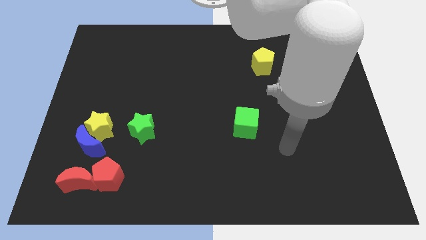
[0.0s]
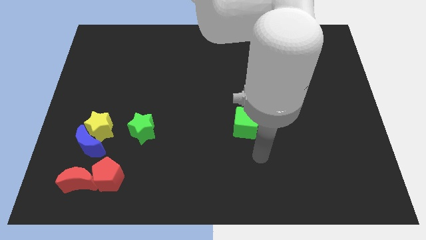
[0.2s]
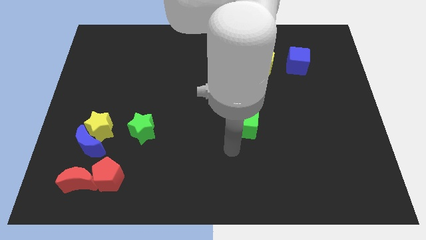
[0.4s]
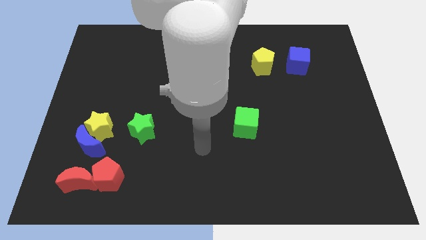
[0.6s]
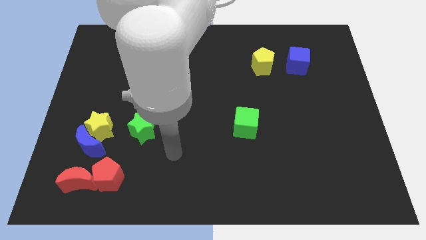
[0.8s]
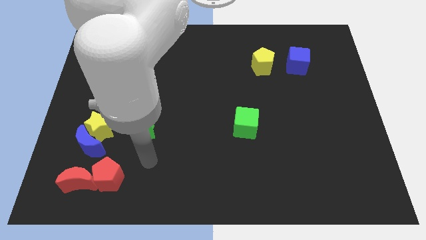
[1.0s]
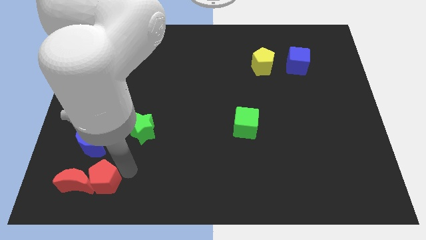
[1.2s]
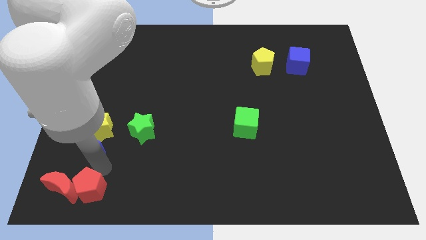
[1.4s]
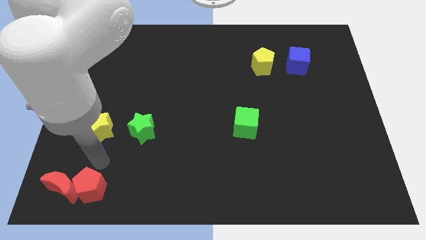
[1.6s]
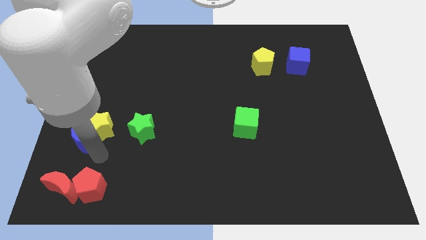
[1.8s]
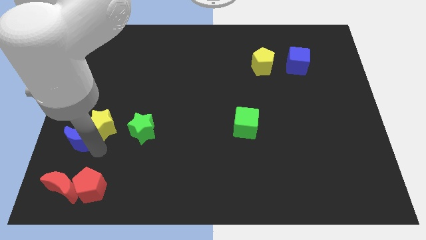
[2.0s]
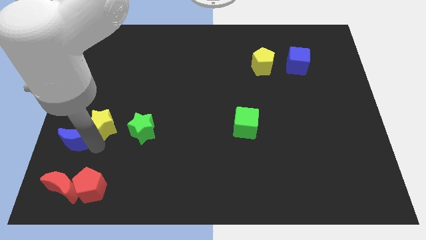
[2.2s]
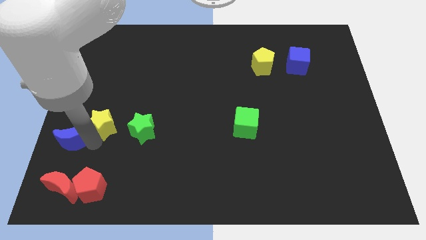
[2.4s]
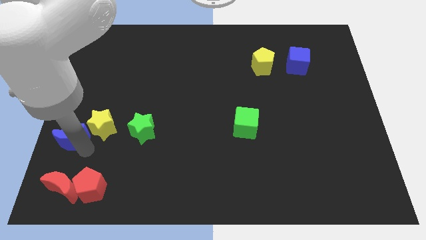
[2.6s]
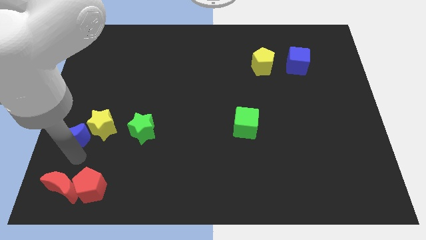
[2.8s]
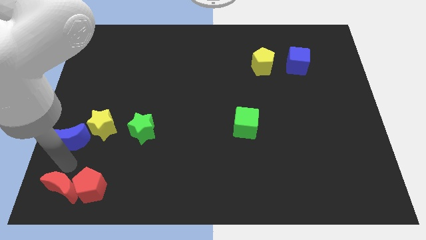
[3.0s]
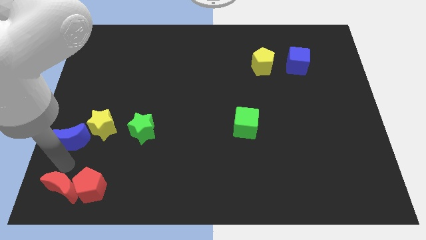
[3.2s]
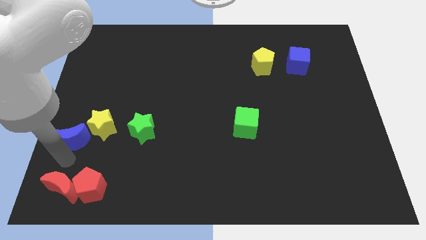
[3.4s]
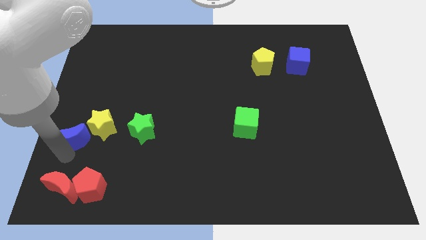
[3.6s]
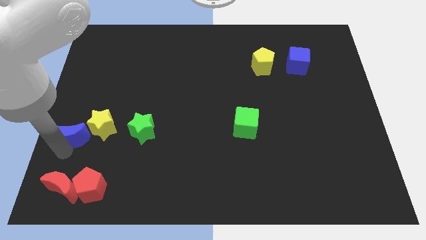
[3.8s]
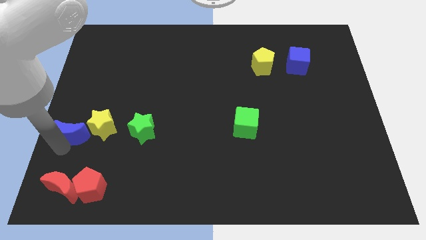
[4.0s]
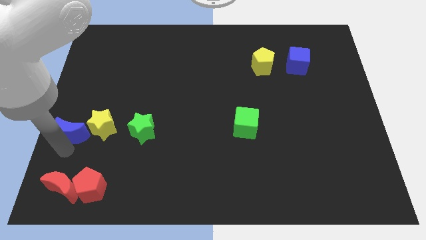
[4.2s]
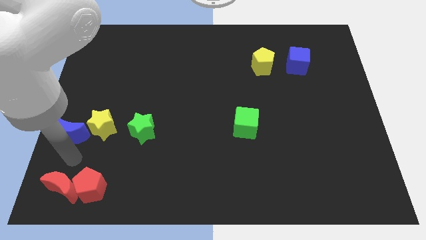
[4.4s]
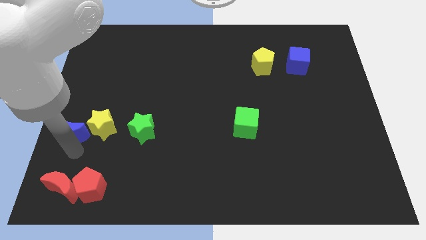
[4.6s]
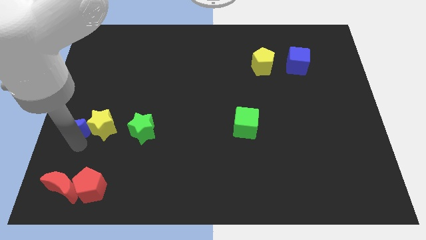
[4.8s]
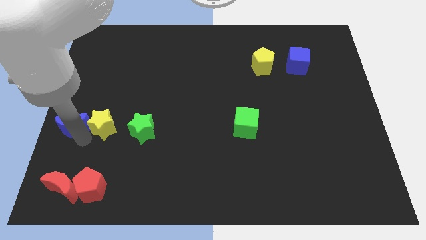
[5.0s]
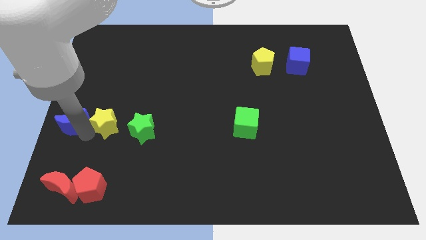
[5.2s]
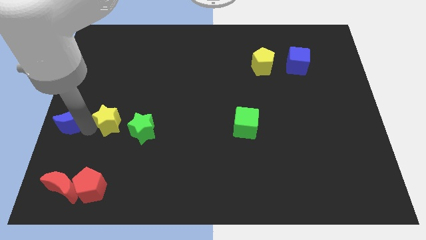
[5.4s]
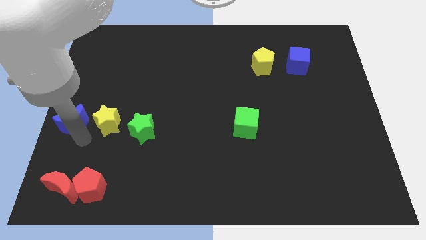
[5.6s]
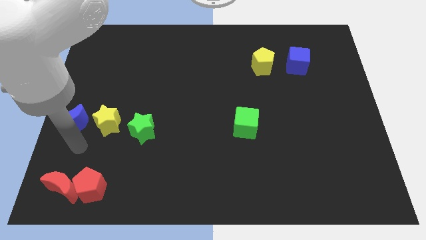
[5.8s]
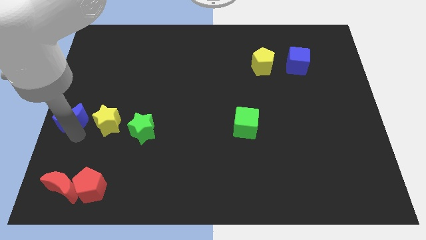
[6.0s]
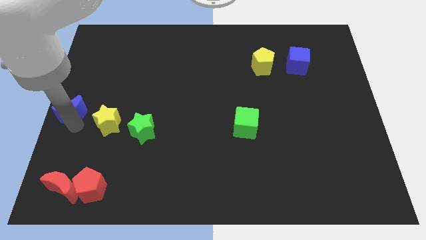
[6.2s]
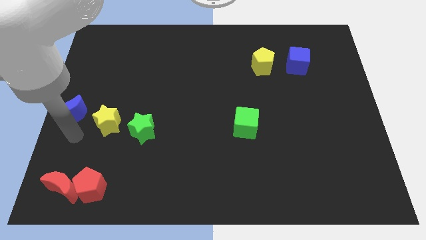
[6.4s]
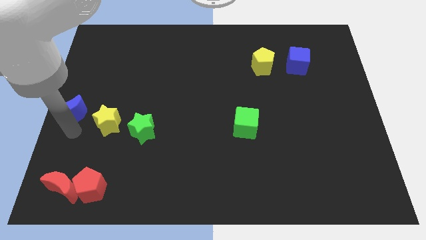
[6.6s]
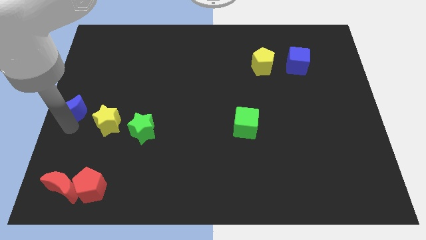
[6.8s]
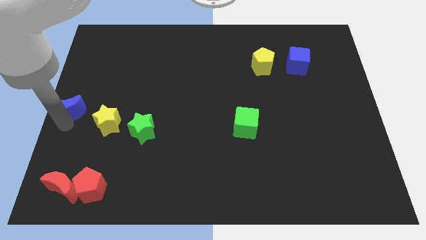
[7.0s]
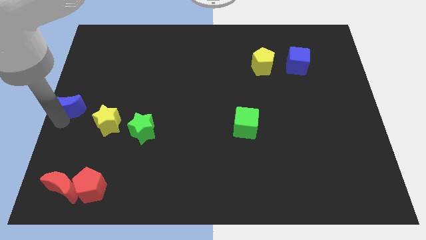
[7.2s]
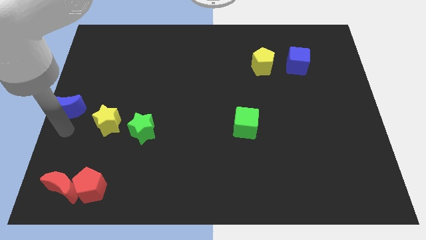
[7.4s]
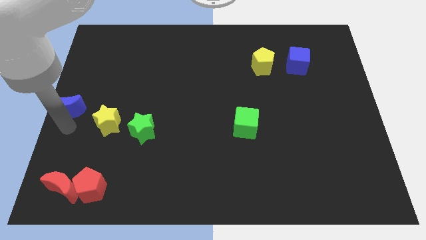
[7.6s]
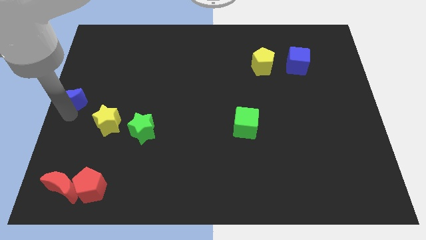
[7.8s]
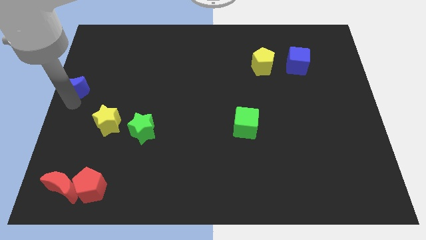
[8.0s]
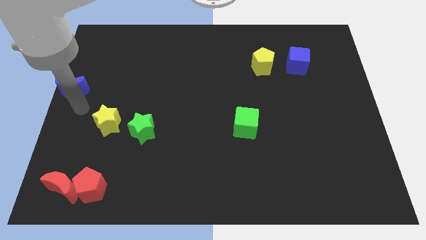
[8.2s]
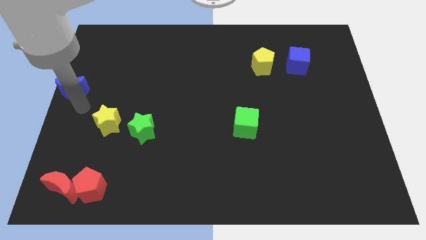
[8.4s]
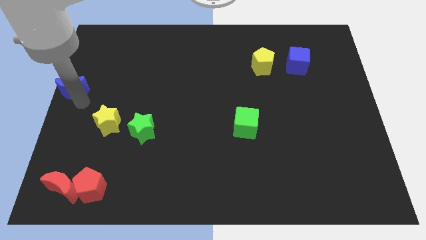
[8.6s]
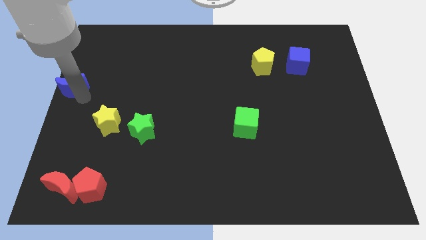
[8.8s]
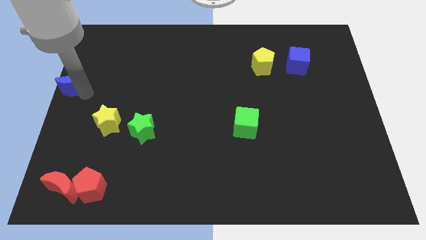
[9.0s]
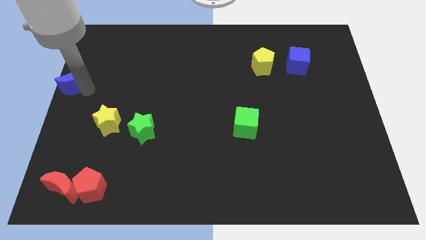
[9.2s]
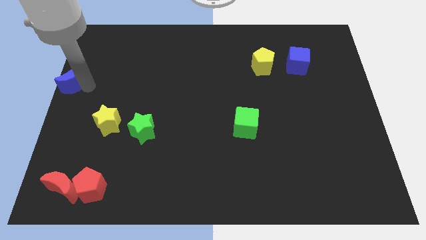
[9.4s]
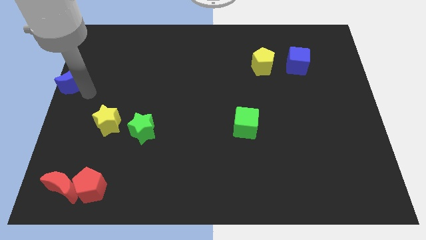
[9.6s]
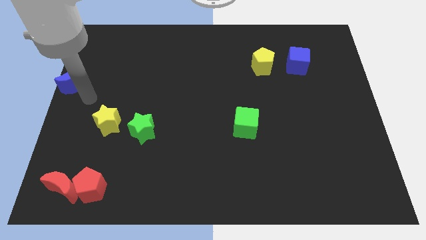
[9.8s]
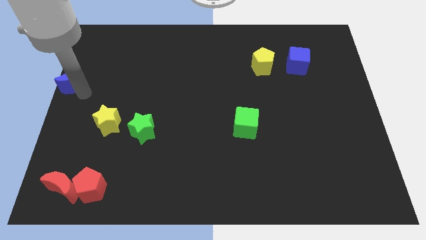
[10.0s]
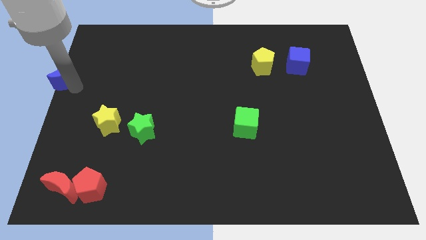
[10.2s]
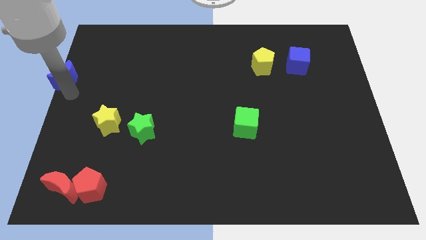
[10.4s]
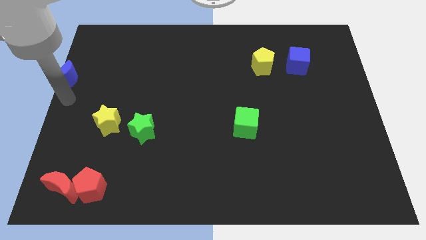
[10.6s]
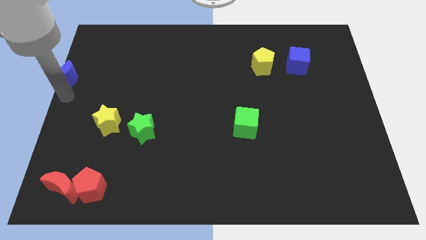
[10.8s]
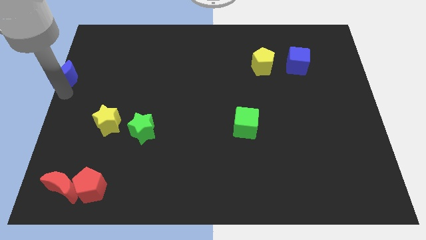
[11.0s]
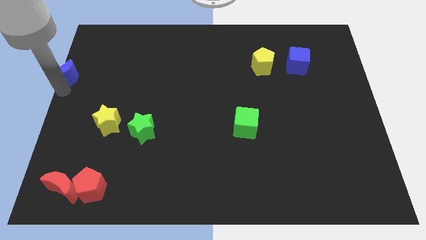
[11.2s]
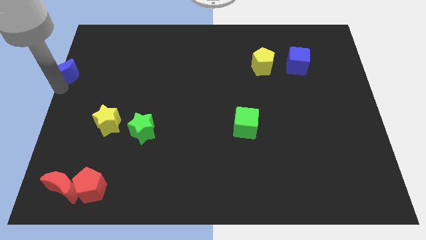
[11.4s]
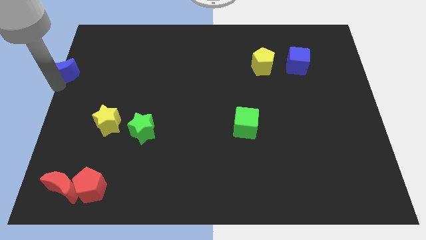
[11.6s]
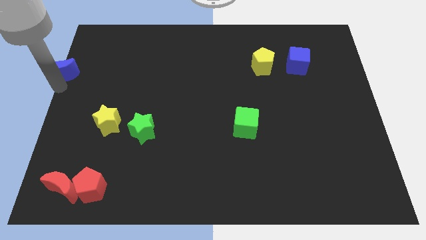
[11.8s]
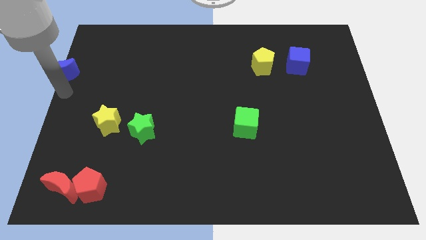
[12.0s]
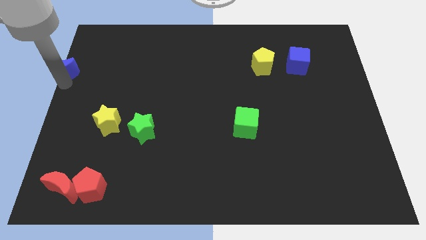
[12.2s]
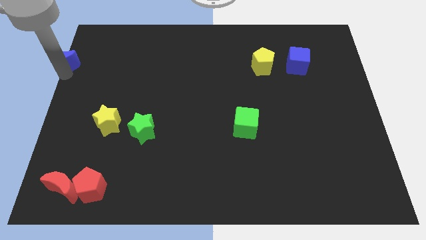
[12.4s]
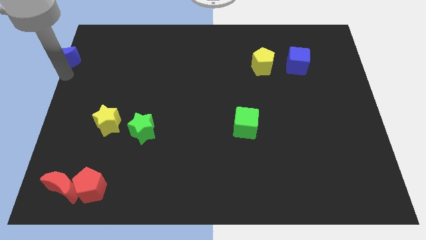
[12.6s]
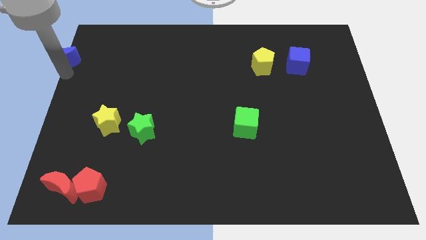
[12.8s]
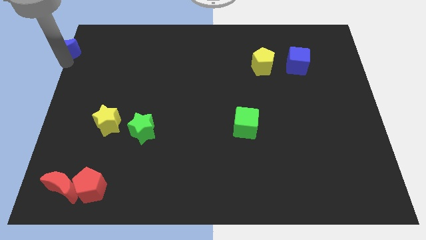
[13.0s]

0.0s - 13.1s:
move the blue moon to the upper left corner

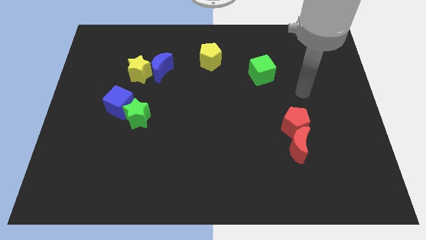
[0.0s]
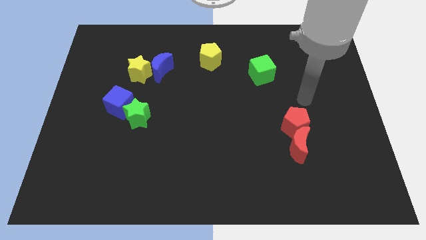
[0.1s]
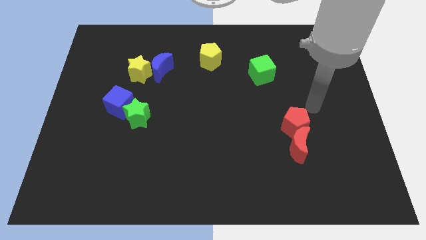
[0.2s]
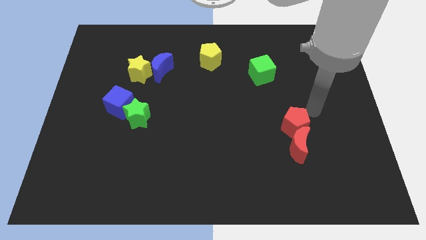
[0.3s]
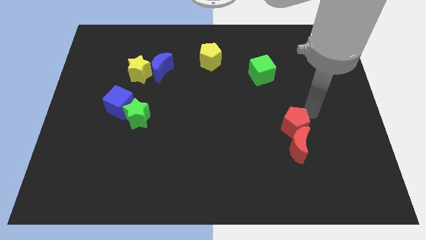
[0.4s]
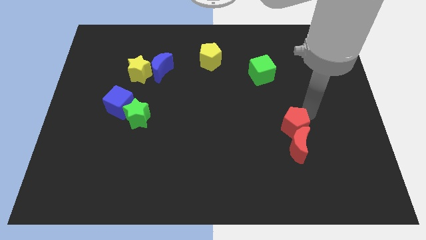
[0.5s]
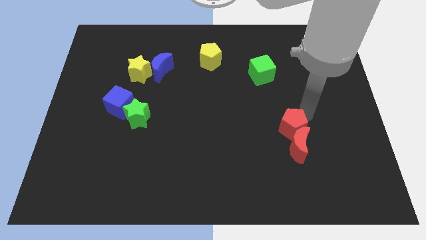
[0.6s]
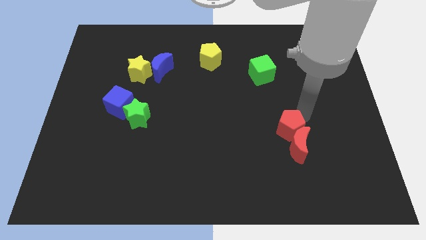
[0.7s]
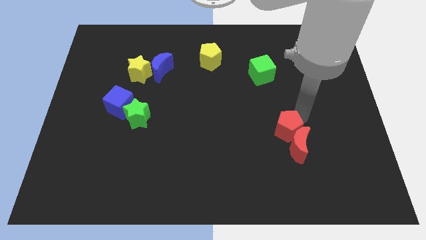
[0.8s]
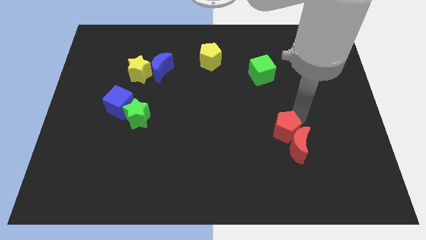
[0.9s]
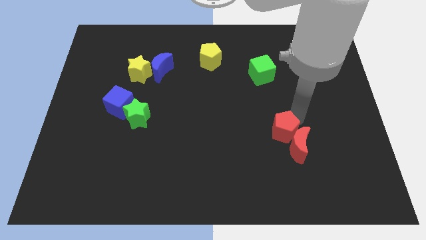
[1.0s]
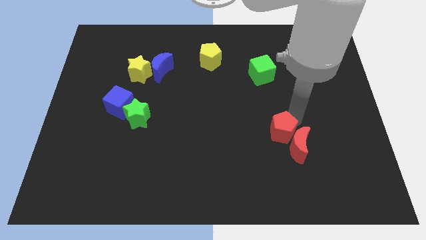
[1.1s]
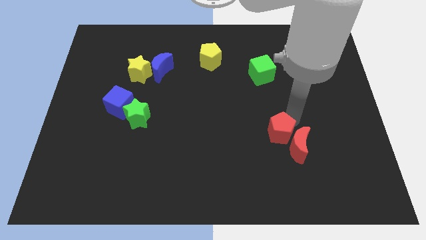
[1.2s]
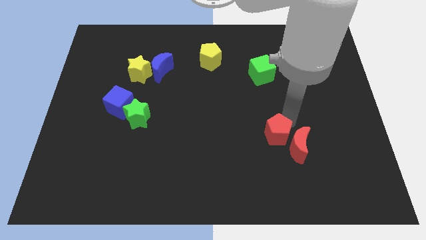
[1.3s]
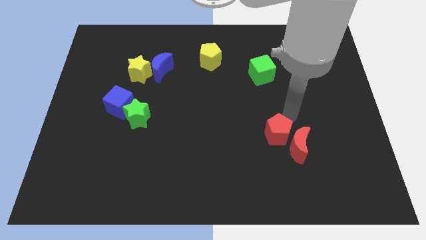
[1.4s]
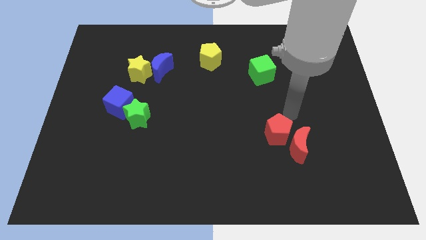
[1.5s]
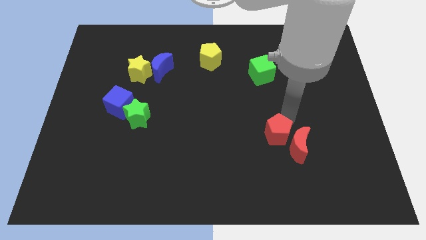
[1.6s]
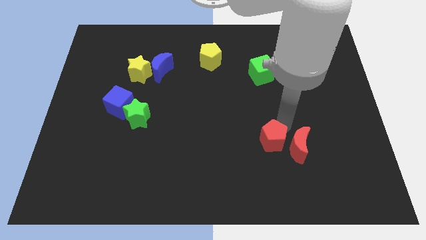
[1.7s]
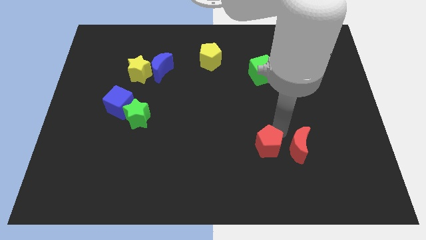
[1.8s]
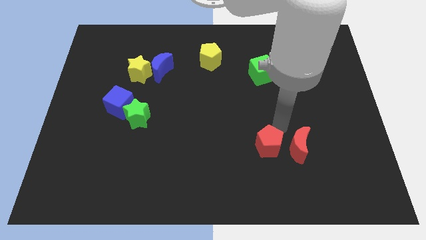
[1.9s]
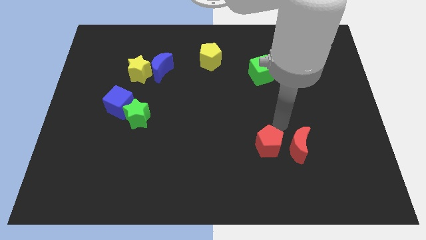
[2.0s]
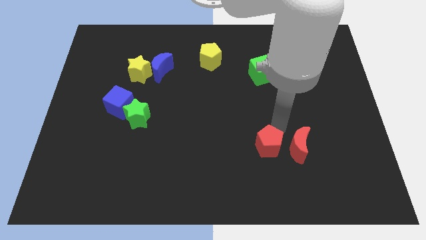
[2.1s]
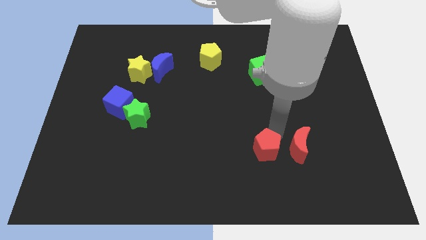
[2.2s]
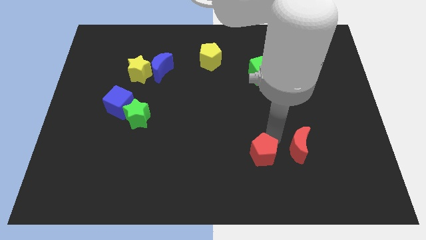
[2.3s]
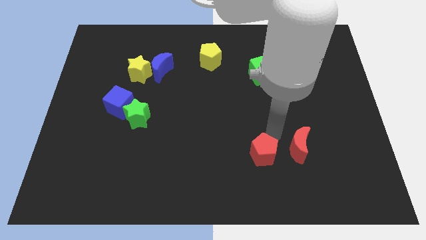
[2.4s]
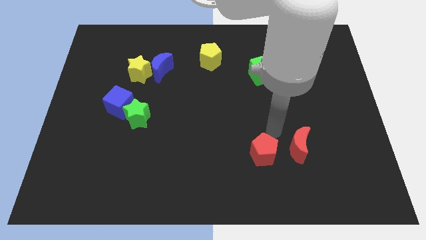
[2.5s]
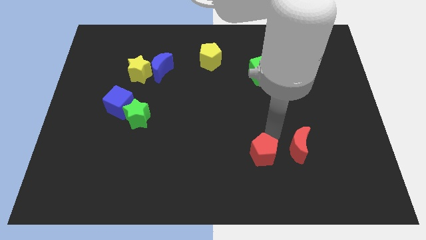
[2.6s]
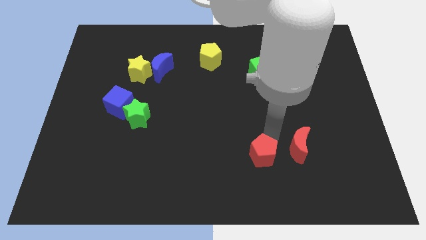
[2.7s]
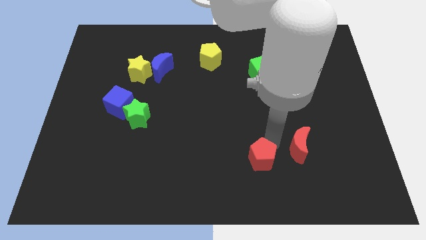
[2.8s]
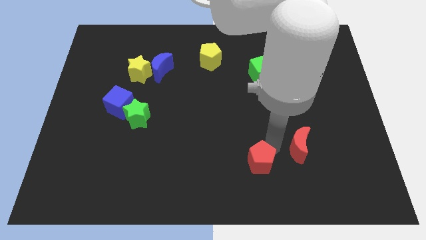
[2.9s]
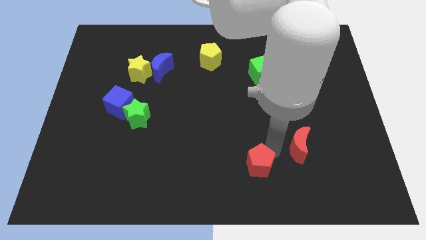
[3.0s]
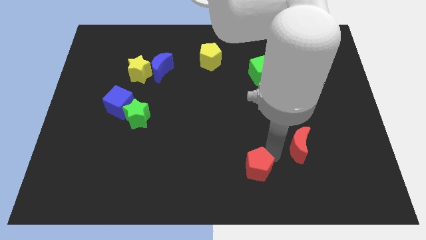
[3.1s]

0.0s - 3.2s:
push the red pentagon to the bottom
